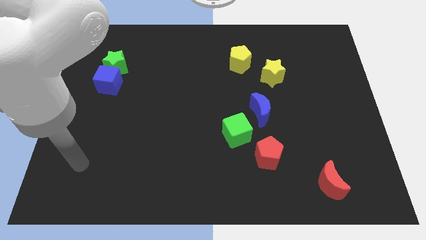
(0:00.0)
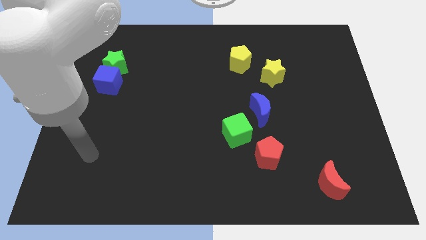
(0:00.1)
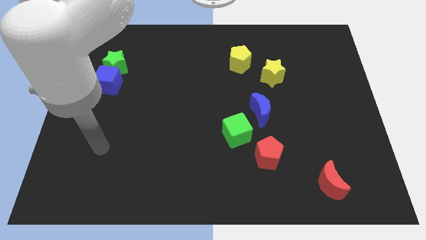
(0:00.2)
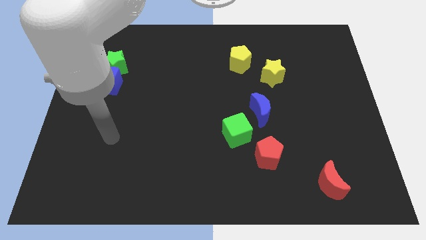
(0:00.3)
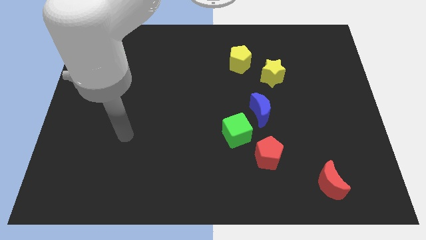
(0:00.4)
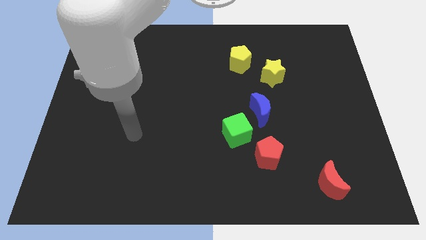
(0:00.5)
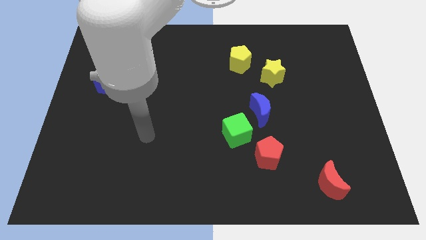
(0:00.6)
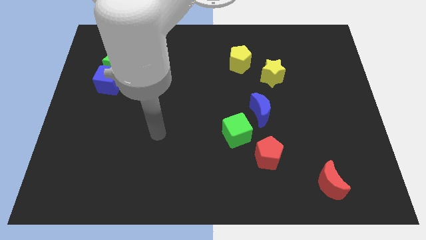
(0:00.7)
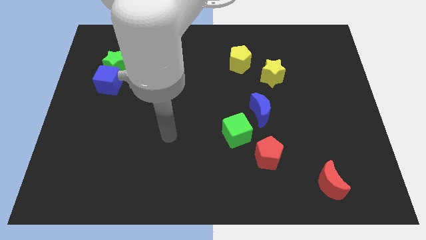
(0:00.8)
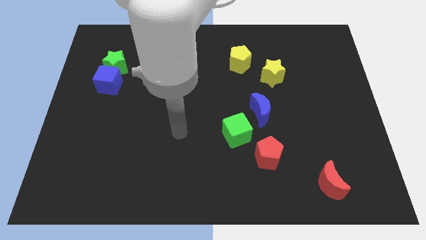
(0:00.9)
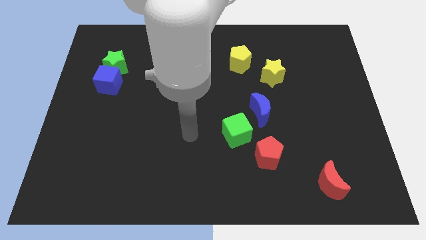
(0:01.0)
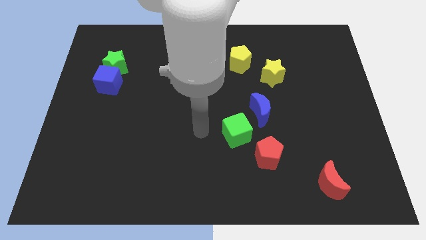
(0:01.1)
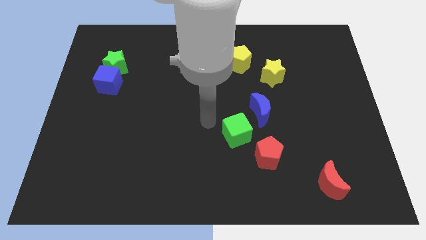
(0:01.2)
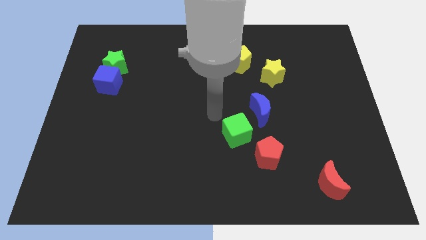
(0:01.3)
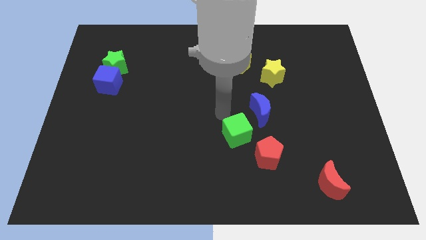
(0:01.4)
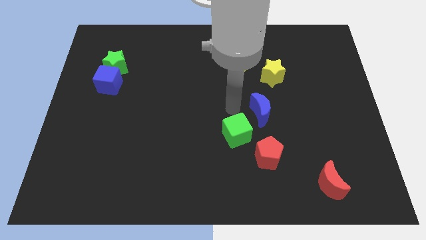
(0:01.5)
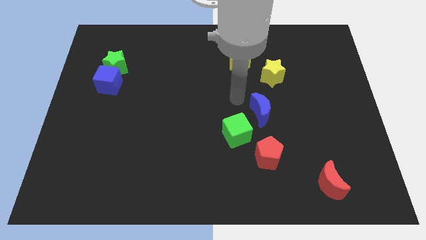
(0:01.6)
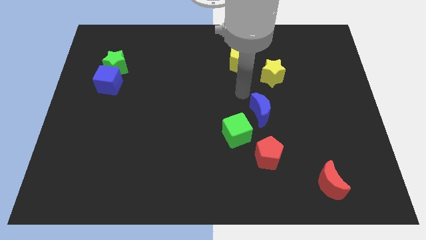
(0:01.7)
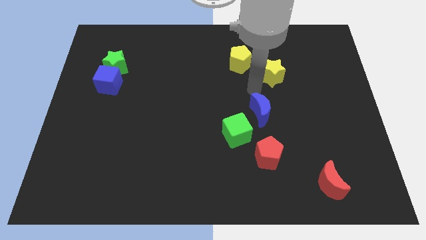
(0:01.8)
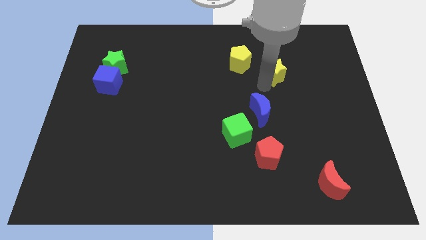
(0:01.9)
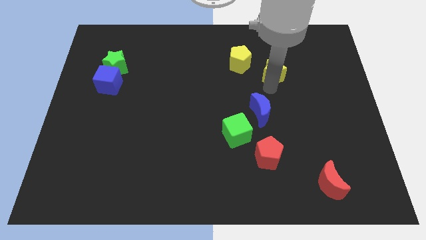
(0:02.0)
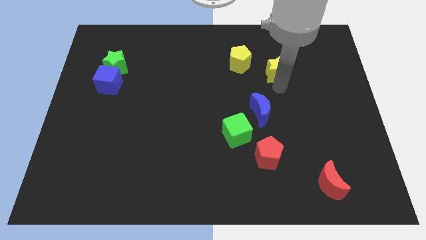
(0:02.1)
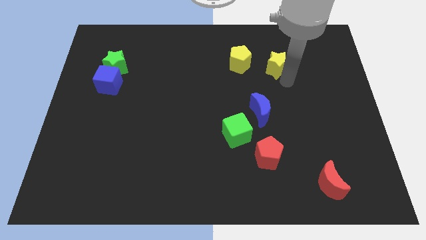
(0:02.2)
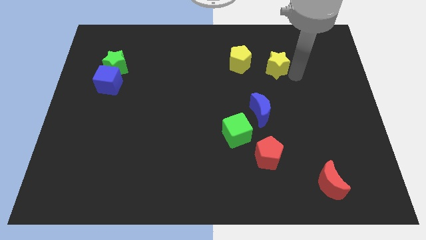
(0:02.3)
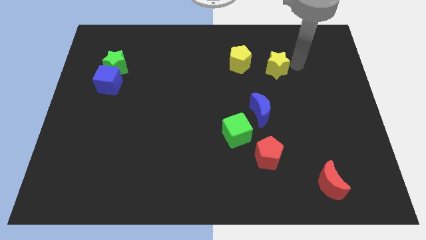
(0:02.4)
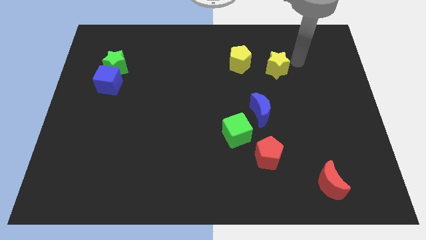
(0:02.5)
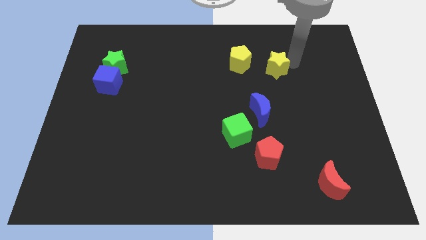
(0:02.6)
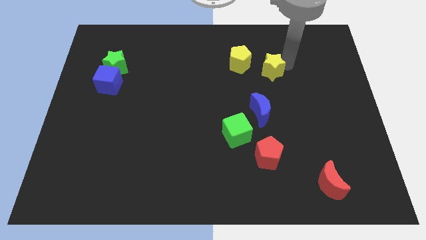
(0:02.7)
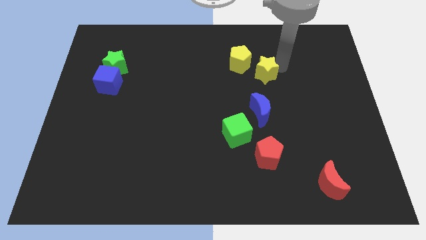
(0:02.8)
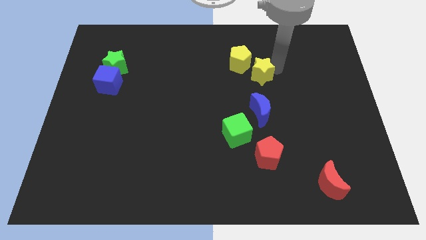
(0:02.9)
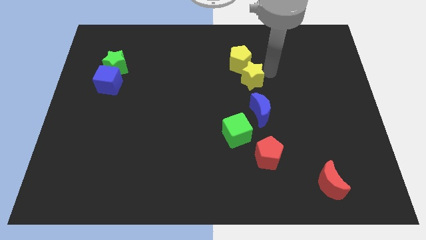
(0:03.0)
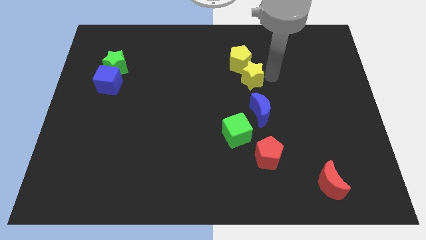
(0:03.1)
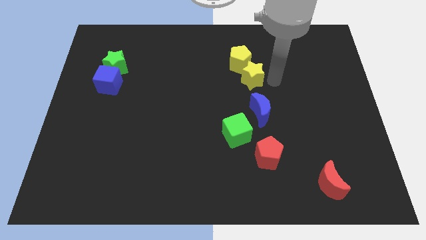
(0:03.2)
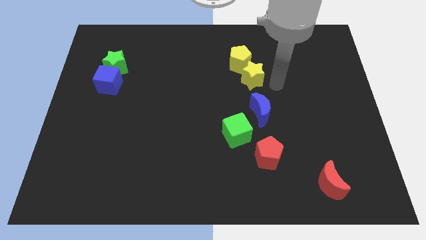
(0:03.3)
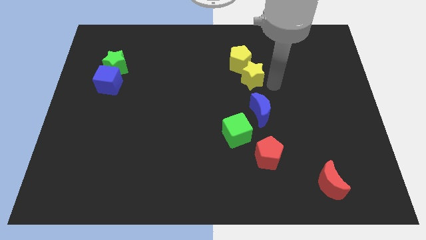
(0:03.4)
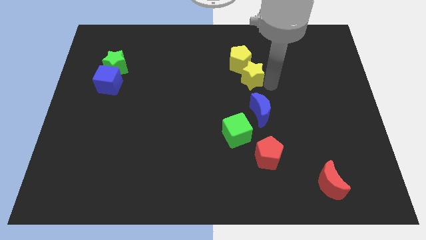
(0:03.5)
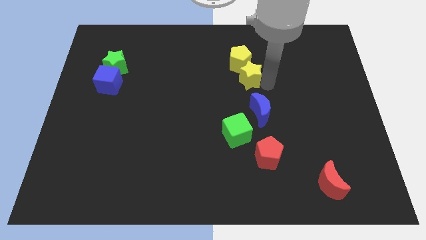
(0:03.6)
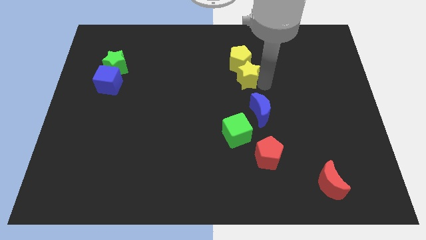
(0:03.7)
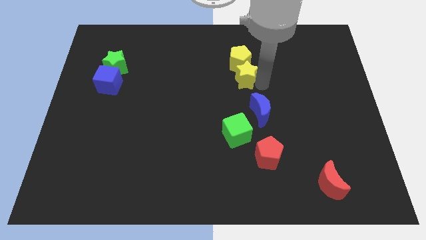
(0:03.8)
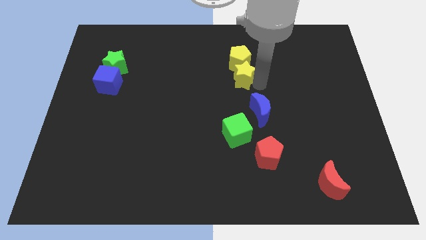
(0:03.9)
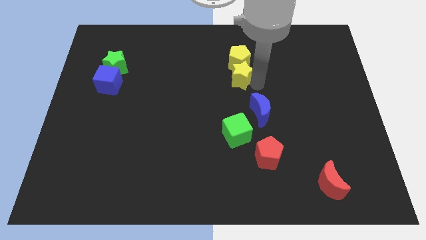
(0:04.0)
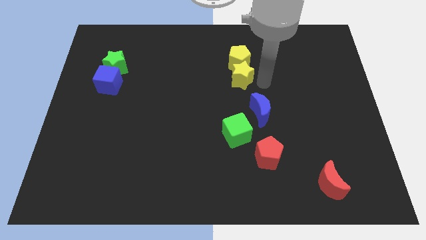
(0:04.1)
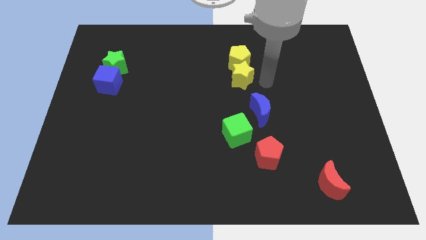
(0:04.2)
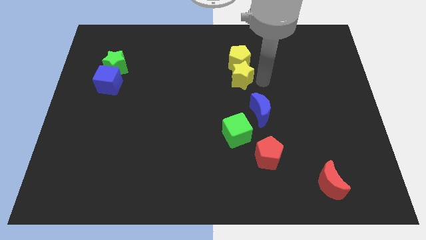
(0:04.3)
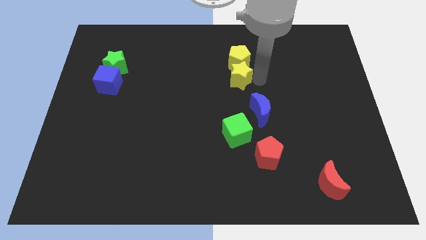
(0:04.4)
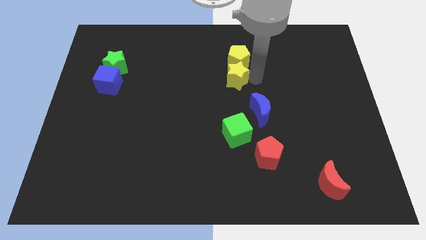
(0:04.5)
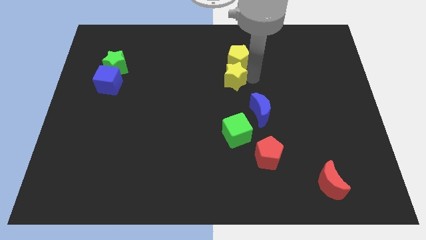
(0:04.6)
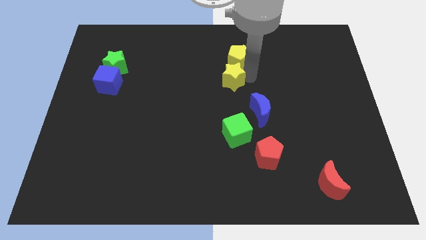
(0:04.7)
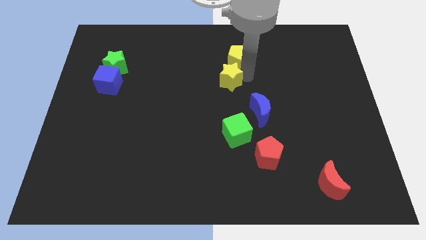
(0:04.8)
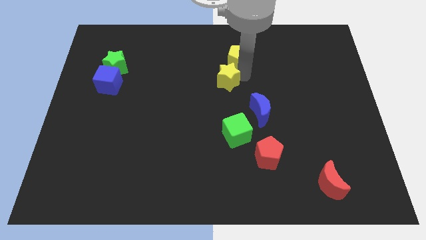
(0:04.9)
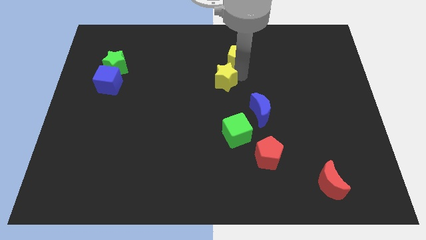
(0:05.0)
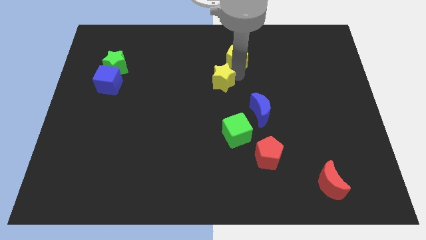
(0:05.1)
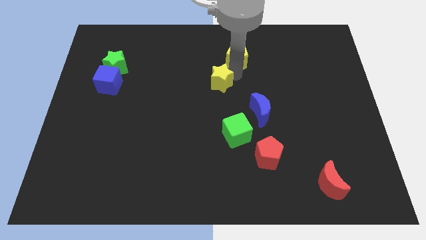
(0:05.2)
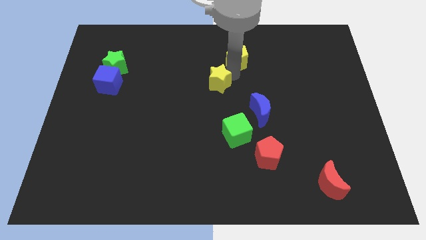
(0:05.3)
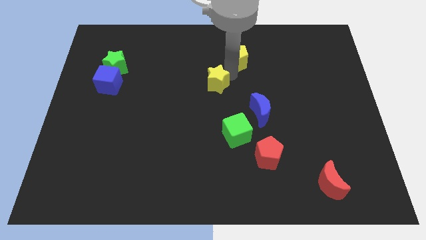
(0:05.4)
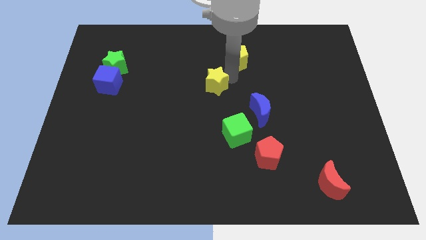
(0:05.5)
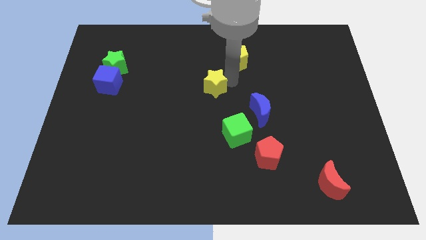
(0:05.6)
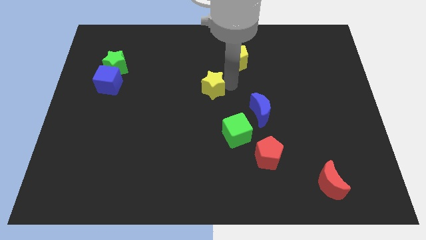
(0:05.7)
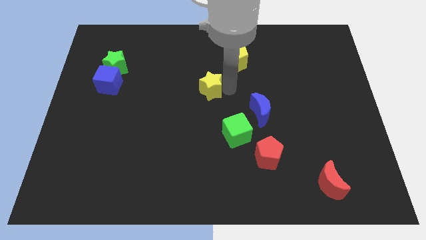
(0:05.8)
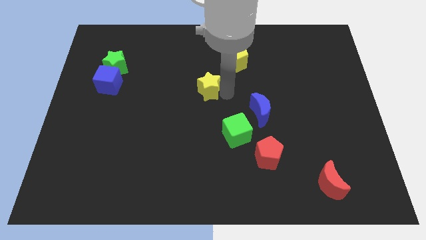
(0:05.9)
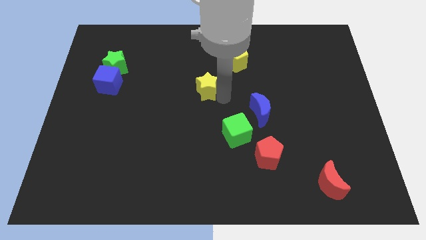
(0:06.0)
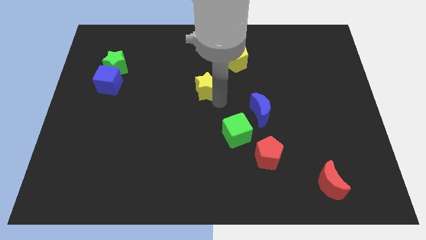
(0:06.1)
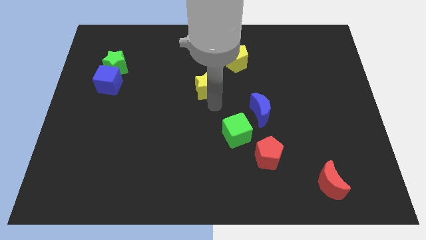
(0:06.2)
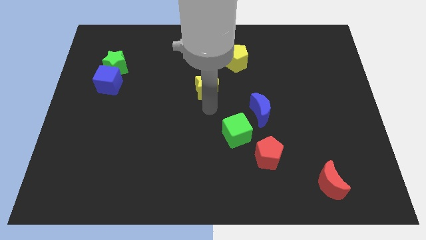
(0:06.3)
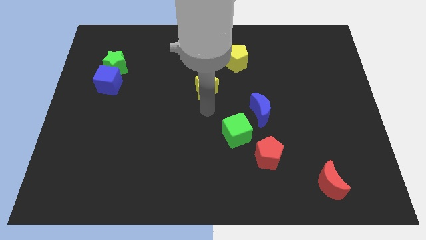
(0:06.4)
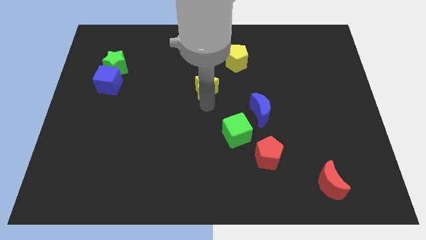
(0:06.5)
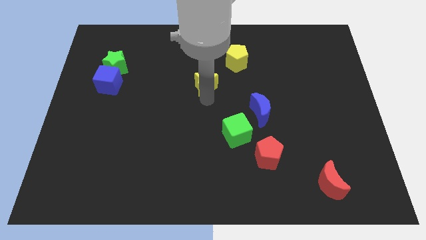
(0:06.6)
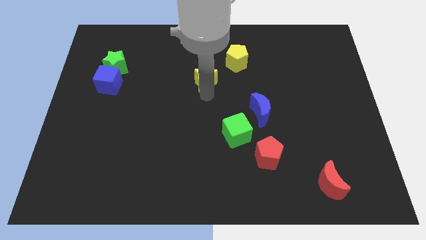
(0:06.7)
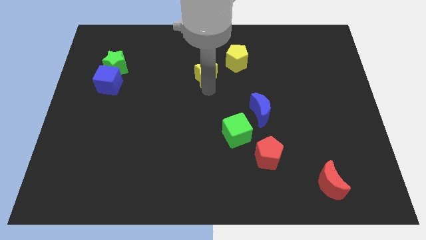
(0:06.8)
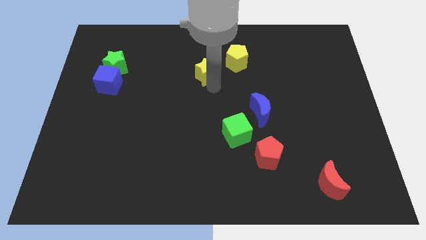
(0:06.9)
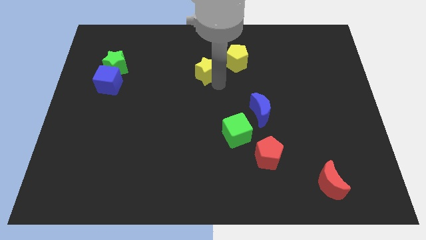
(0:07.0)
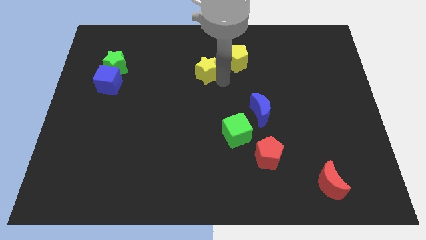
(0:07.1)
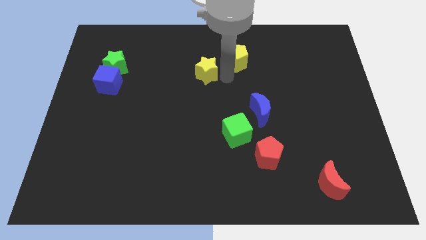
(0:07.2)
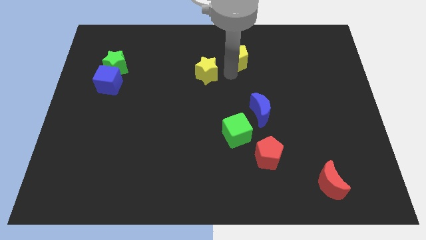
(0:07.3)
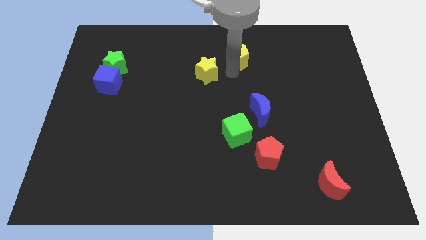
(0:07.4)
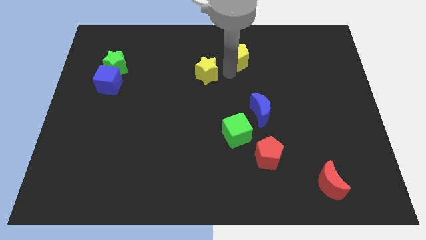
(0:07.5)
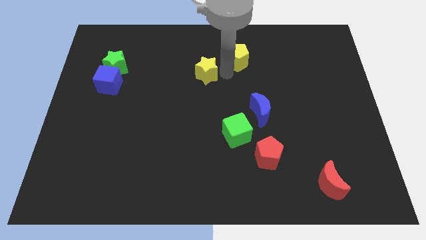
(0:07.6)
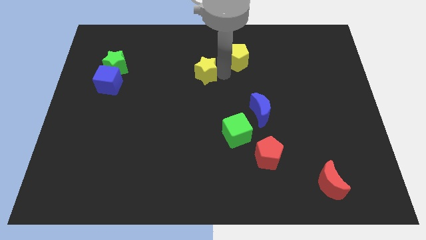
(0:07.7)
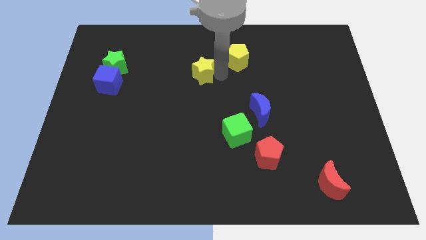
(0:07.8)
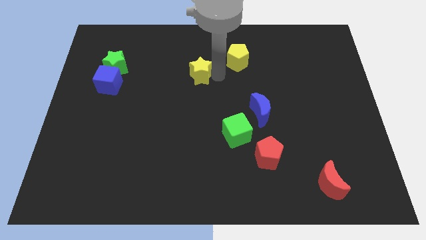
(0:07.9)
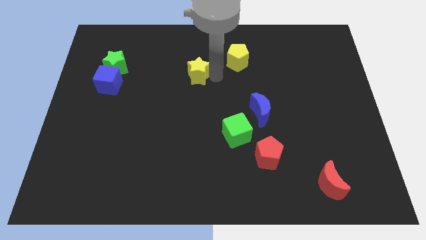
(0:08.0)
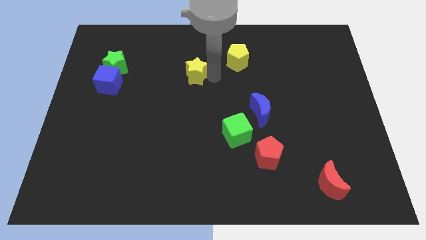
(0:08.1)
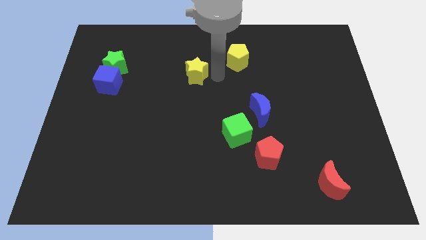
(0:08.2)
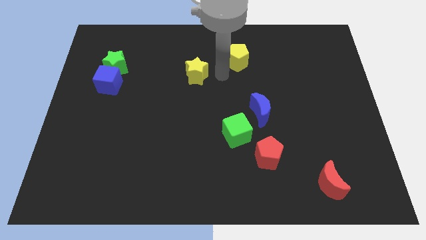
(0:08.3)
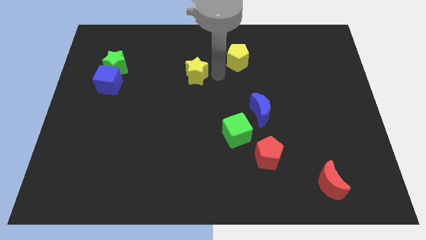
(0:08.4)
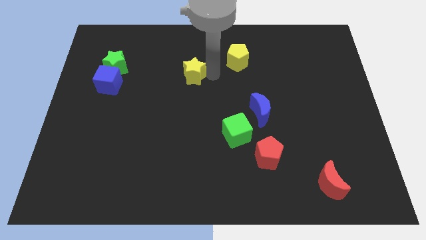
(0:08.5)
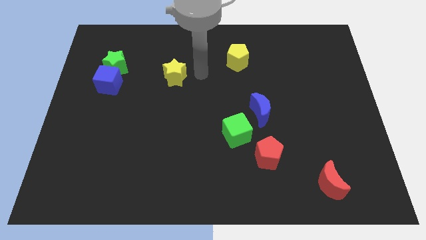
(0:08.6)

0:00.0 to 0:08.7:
move the yellow star to the left
